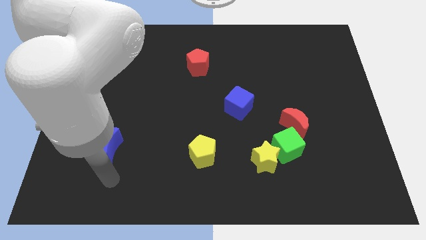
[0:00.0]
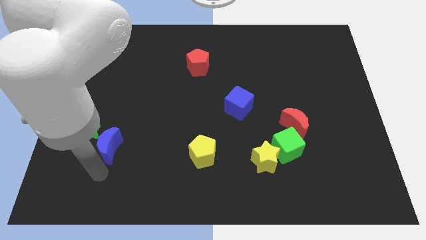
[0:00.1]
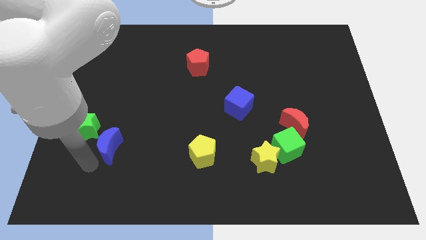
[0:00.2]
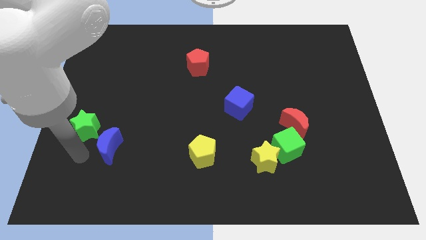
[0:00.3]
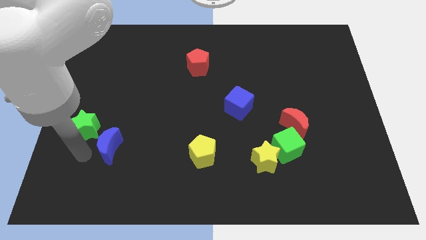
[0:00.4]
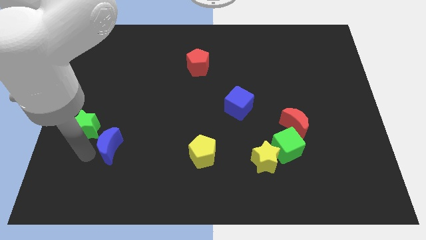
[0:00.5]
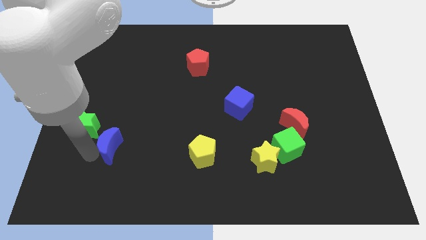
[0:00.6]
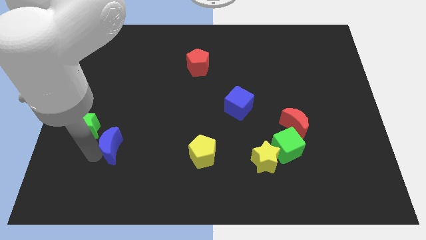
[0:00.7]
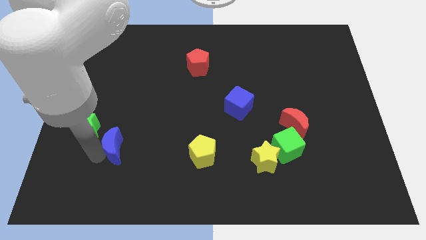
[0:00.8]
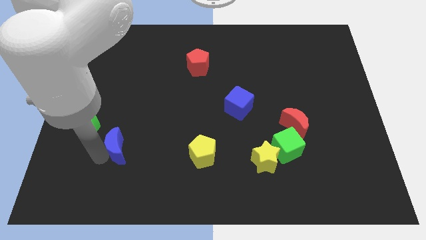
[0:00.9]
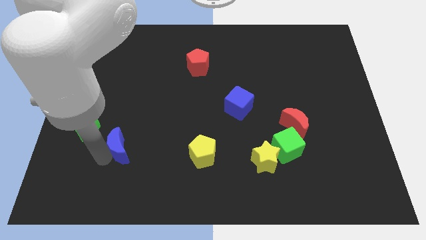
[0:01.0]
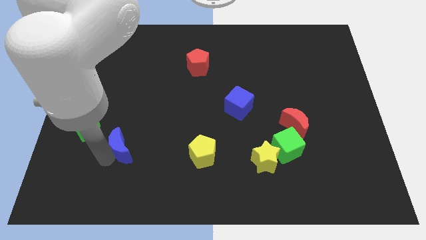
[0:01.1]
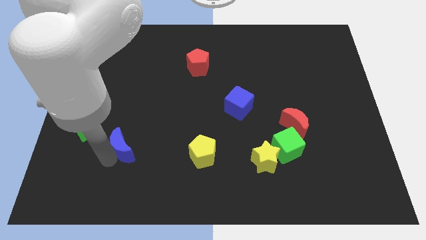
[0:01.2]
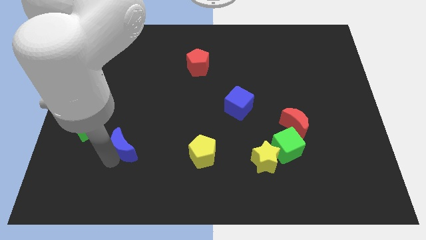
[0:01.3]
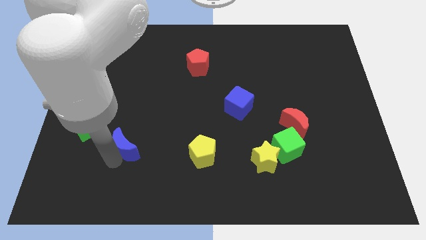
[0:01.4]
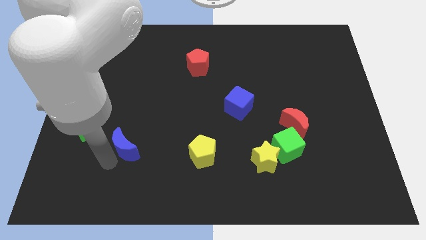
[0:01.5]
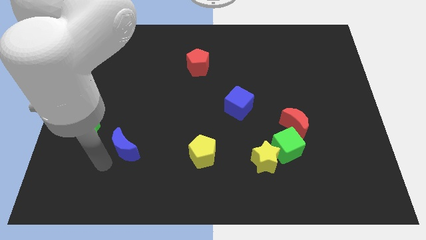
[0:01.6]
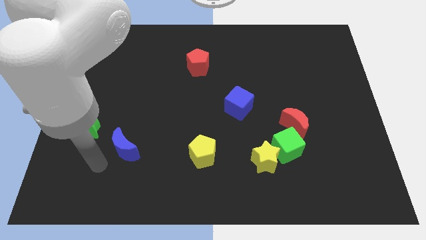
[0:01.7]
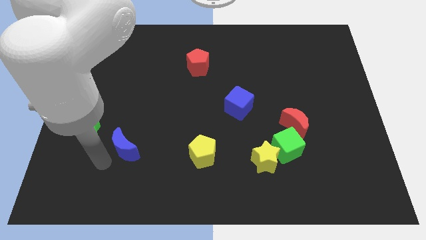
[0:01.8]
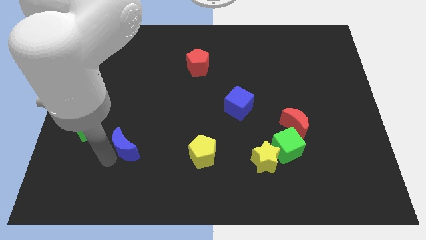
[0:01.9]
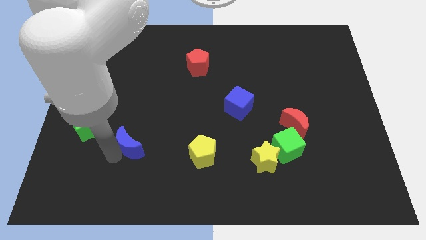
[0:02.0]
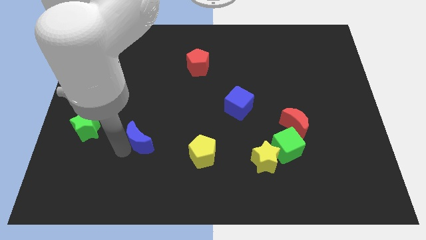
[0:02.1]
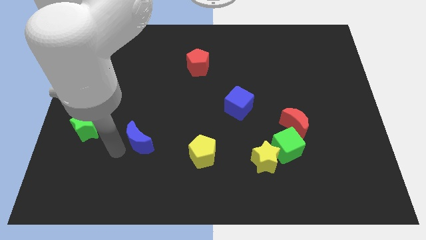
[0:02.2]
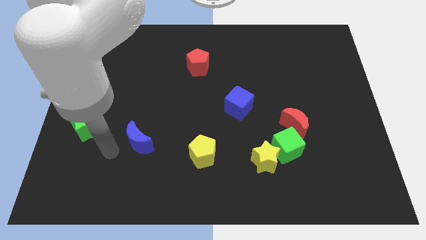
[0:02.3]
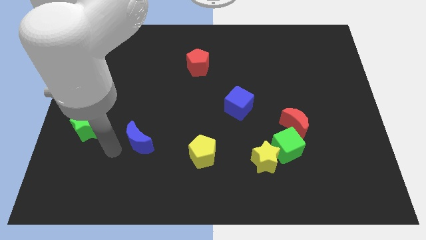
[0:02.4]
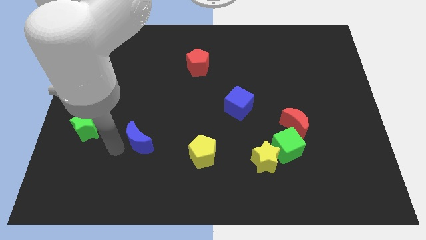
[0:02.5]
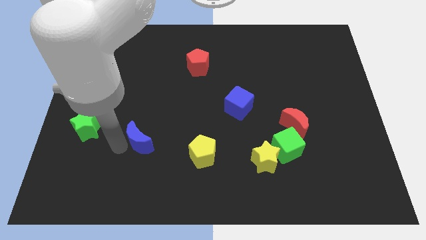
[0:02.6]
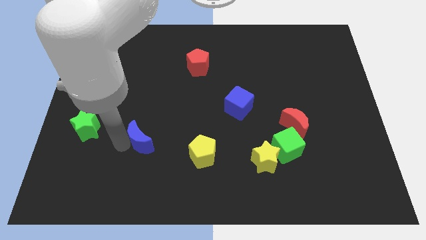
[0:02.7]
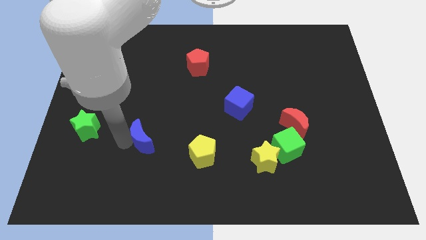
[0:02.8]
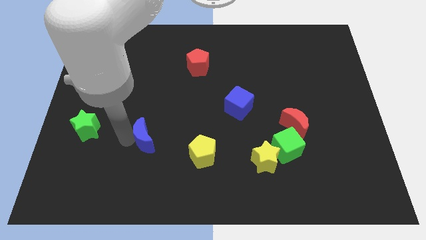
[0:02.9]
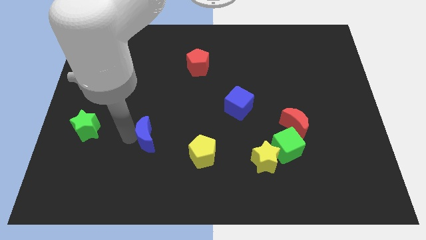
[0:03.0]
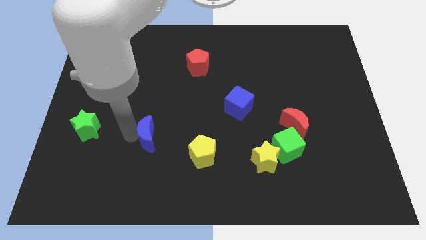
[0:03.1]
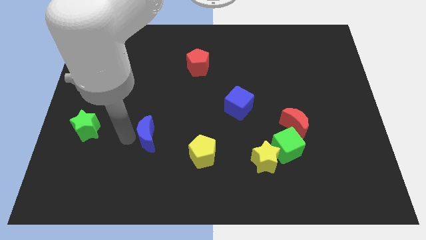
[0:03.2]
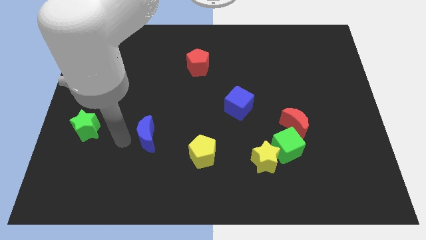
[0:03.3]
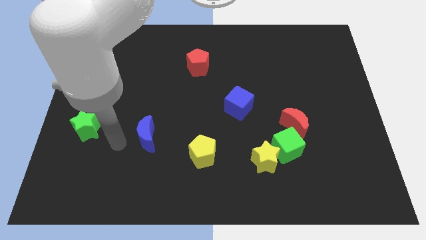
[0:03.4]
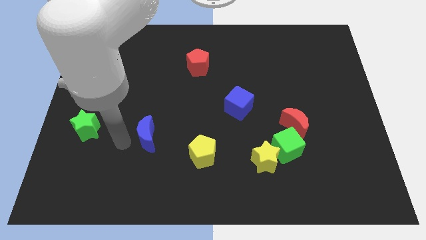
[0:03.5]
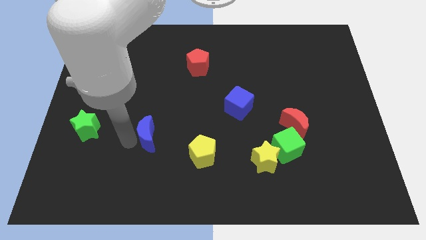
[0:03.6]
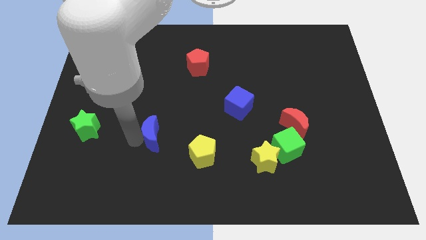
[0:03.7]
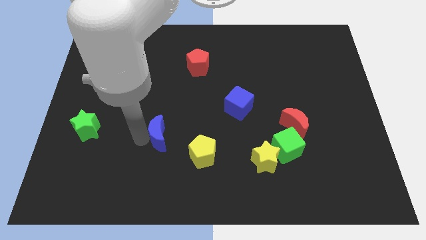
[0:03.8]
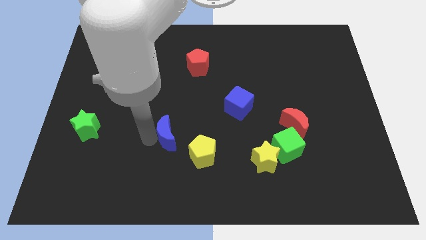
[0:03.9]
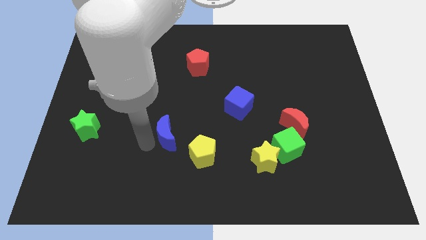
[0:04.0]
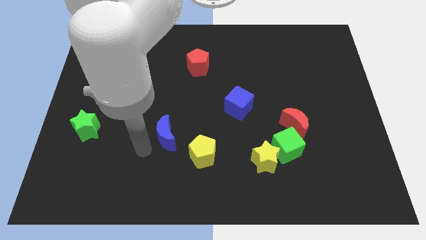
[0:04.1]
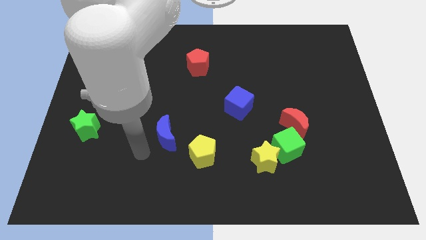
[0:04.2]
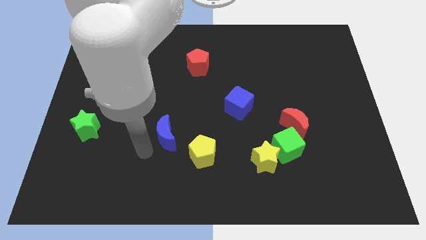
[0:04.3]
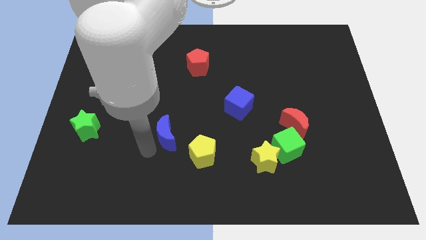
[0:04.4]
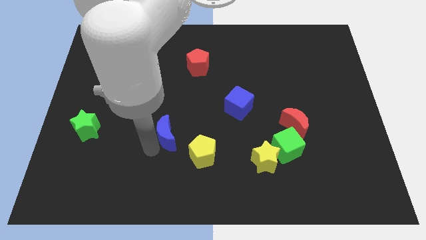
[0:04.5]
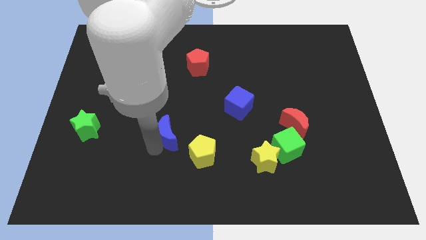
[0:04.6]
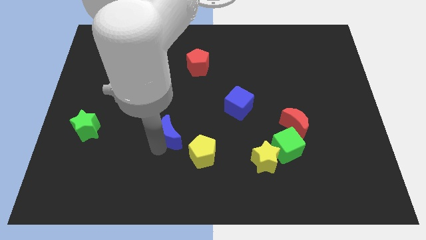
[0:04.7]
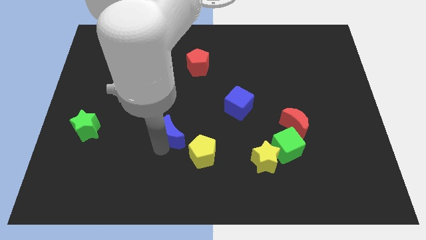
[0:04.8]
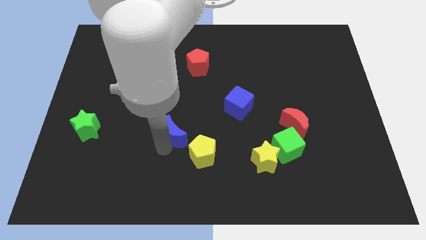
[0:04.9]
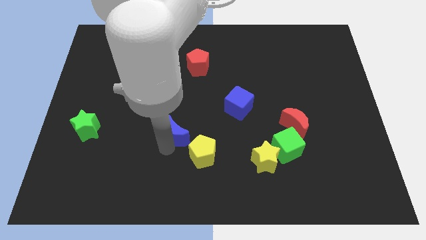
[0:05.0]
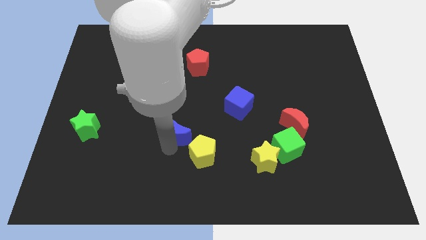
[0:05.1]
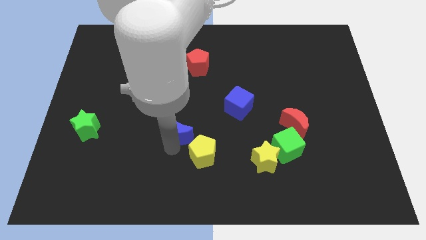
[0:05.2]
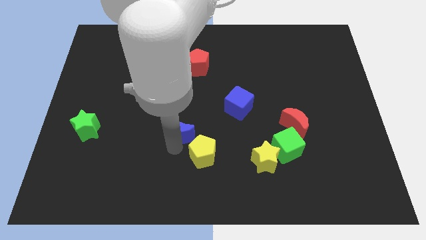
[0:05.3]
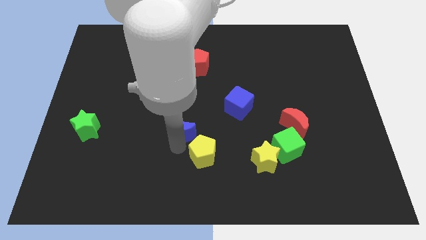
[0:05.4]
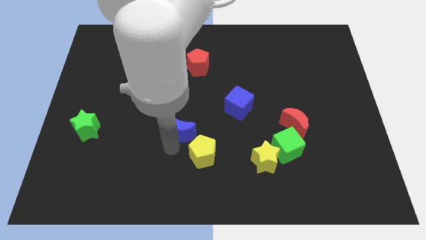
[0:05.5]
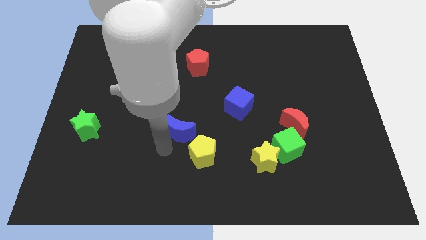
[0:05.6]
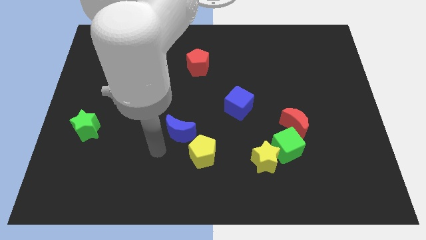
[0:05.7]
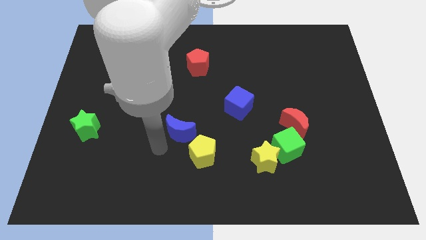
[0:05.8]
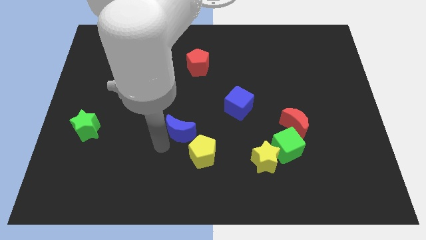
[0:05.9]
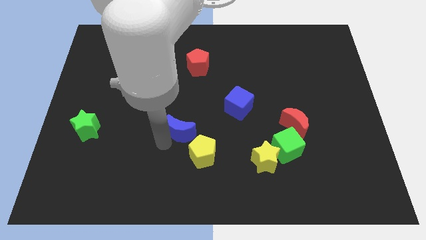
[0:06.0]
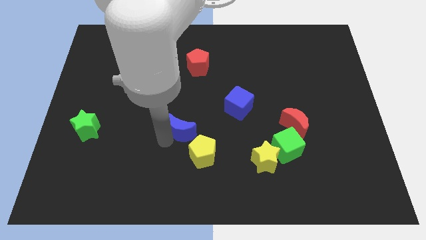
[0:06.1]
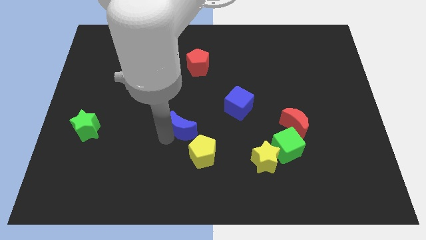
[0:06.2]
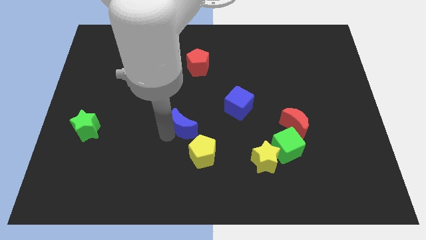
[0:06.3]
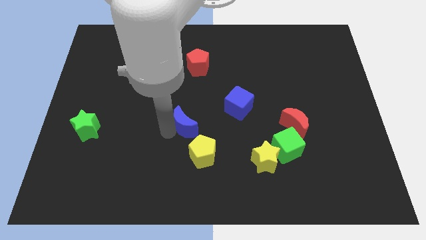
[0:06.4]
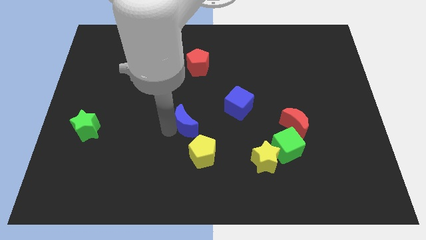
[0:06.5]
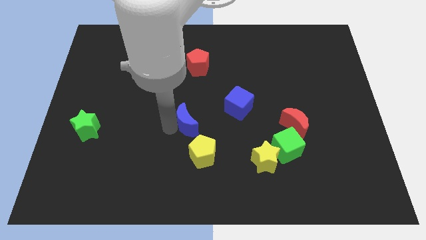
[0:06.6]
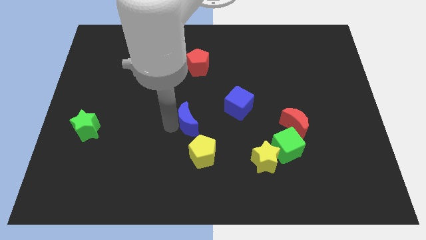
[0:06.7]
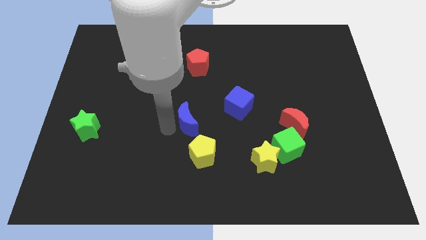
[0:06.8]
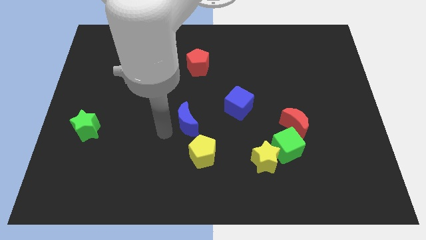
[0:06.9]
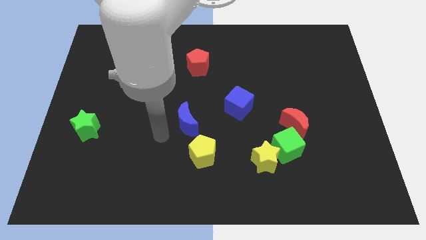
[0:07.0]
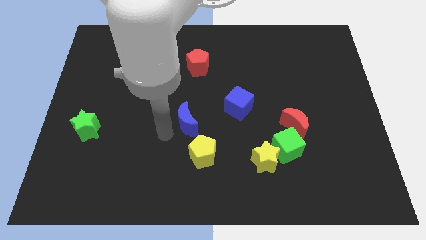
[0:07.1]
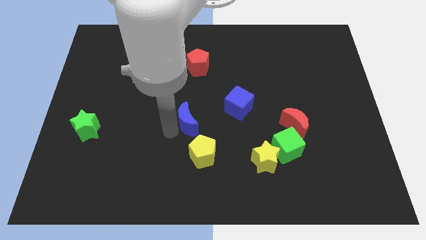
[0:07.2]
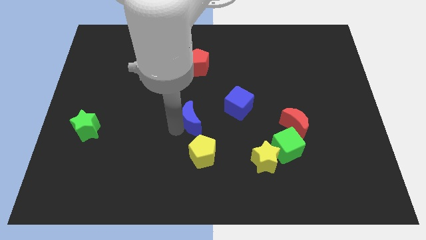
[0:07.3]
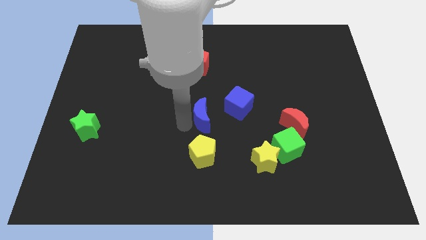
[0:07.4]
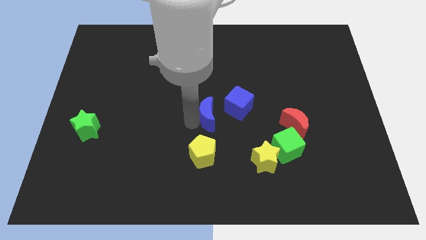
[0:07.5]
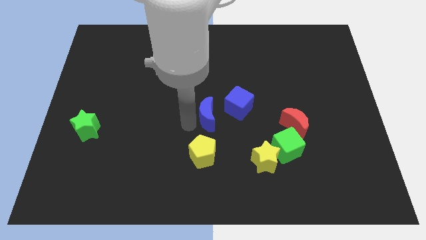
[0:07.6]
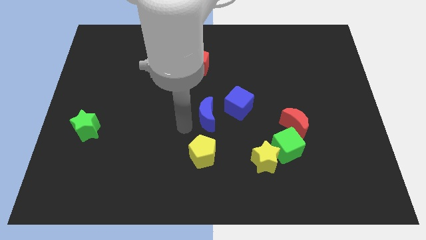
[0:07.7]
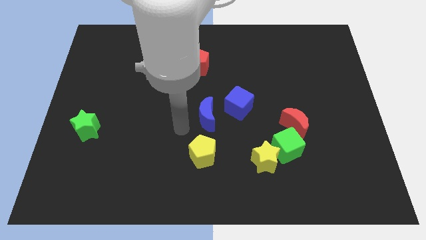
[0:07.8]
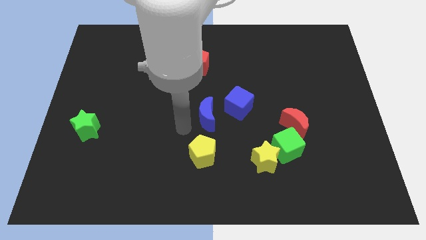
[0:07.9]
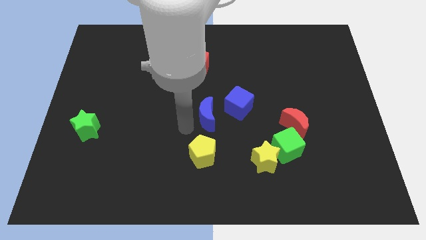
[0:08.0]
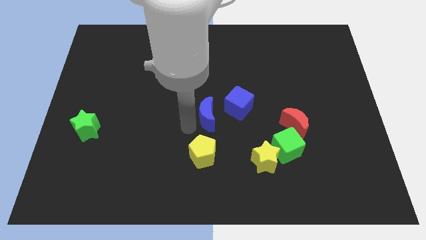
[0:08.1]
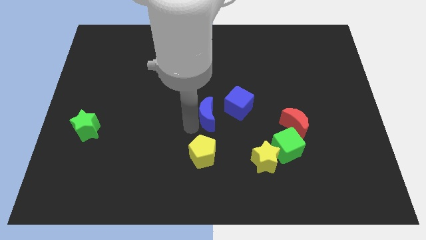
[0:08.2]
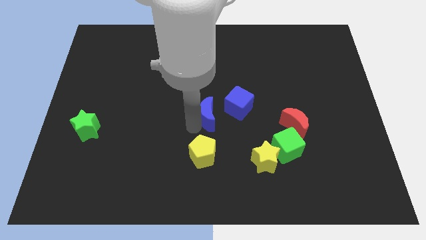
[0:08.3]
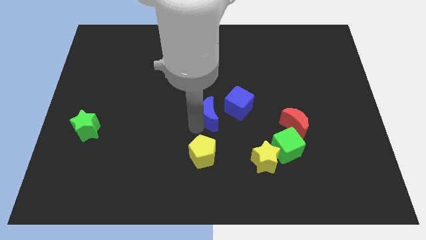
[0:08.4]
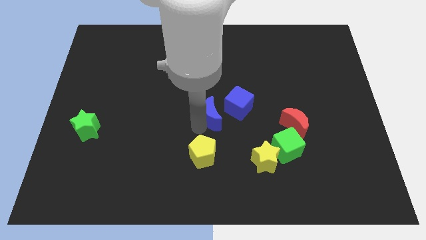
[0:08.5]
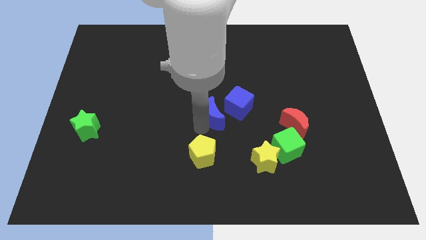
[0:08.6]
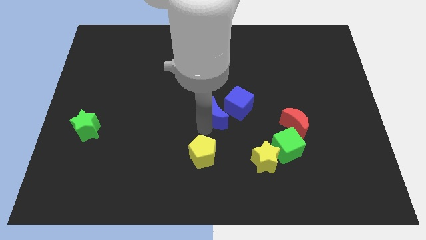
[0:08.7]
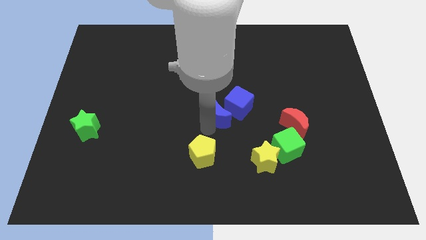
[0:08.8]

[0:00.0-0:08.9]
slide the blue moon to the blue cube
